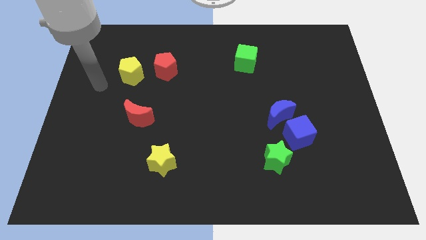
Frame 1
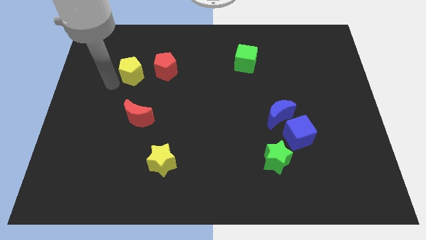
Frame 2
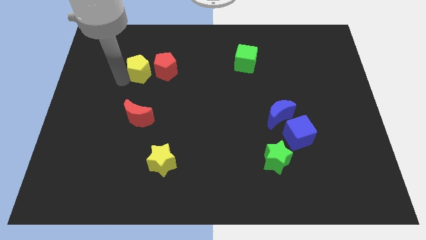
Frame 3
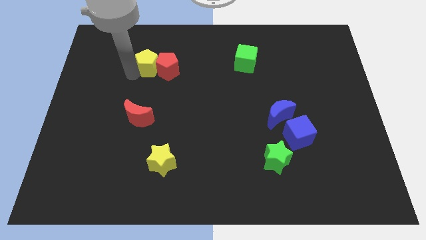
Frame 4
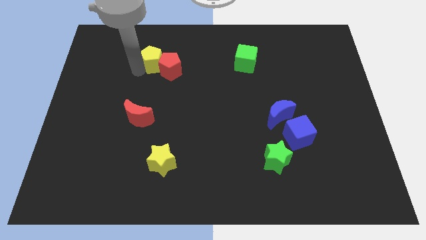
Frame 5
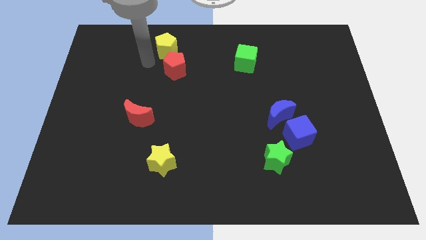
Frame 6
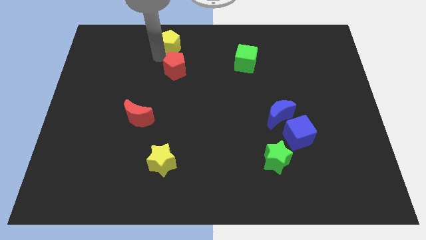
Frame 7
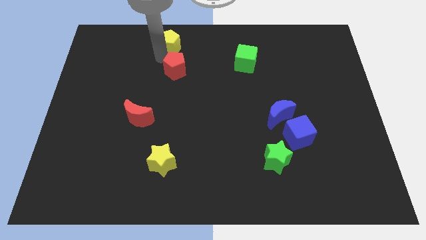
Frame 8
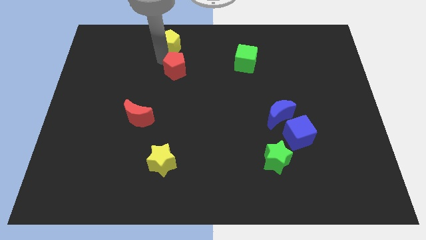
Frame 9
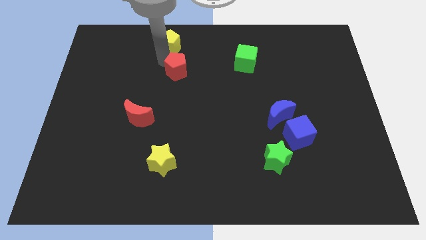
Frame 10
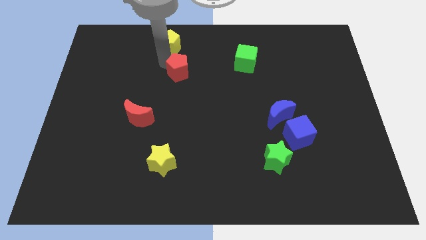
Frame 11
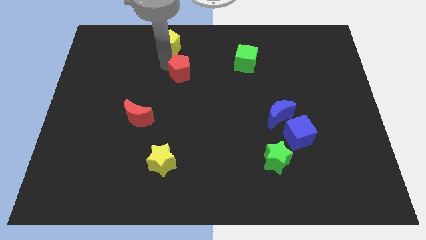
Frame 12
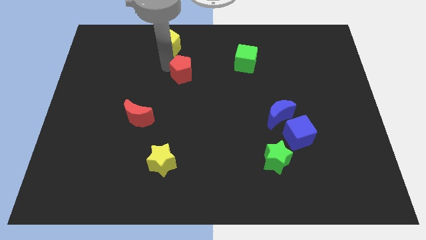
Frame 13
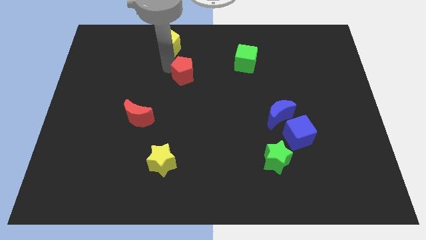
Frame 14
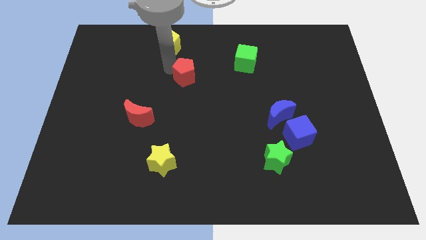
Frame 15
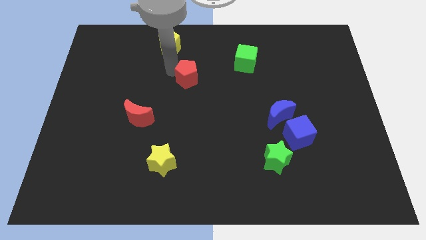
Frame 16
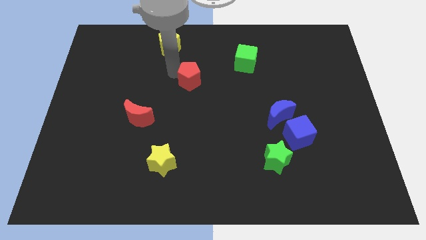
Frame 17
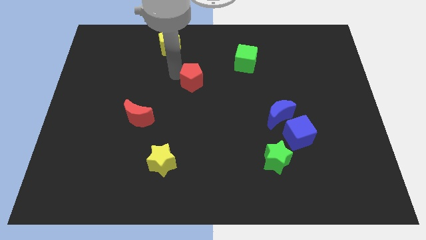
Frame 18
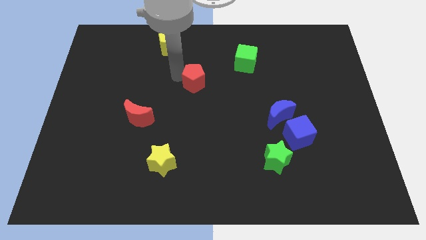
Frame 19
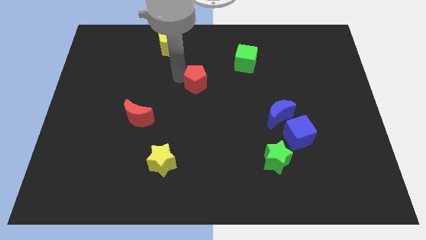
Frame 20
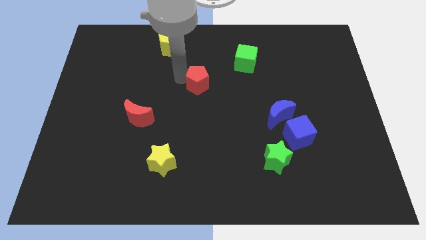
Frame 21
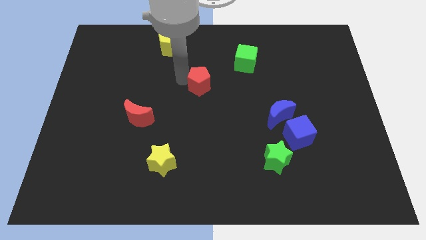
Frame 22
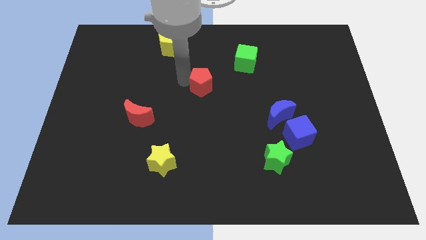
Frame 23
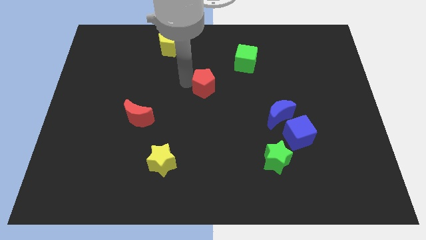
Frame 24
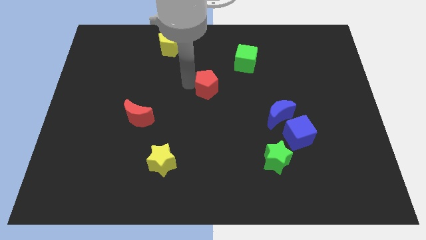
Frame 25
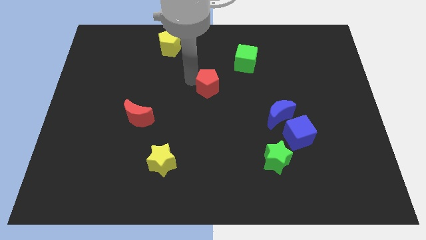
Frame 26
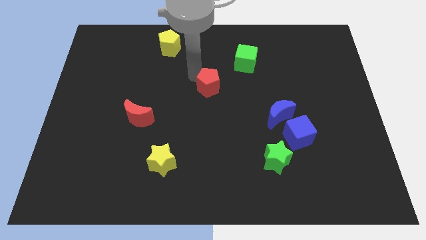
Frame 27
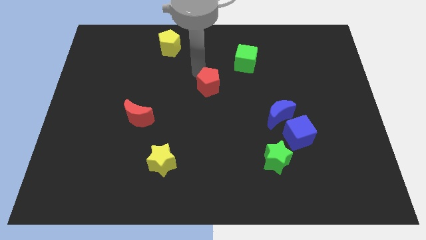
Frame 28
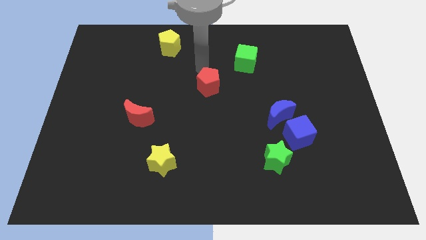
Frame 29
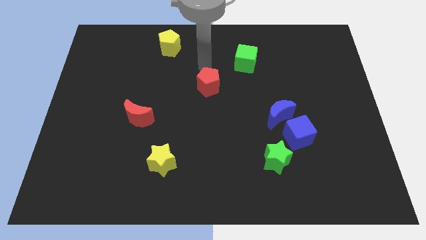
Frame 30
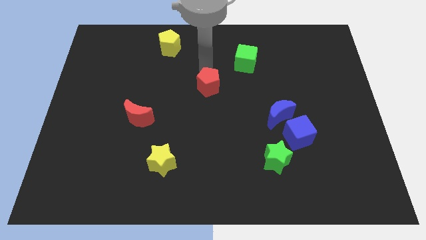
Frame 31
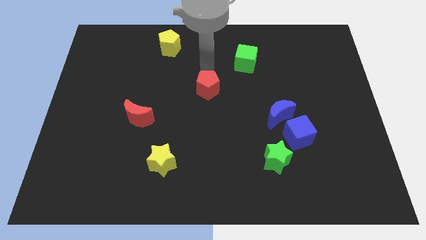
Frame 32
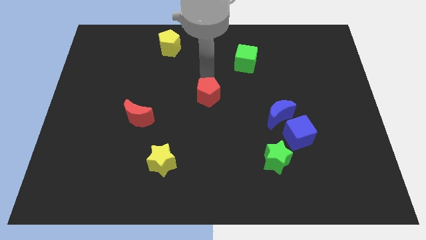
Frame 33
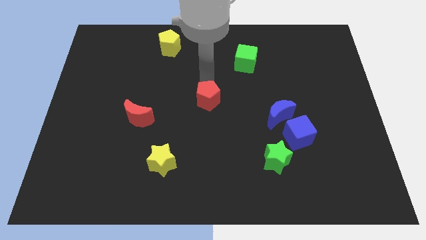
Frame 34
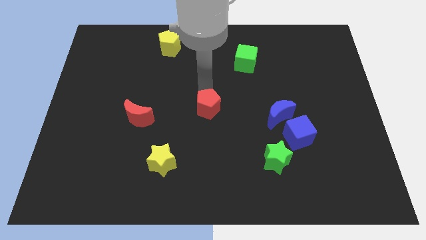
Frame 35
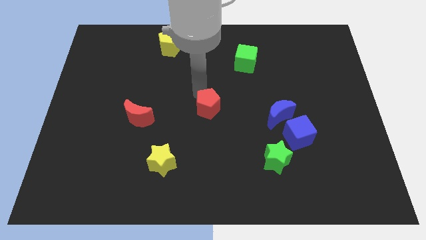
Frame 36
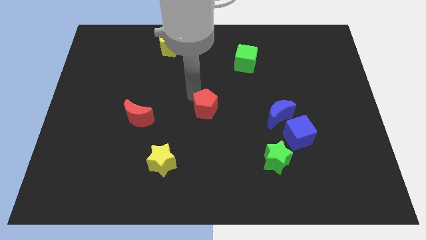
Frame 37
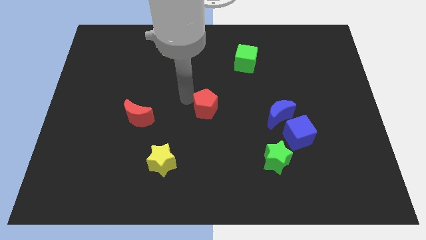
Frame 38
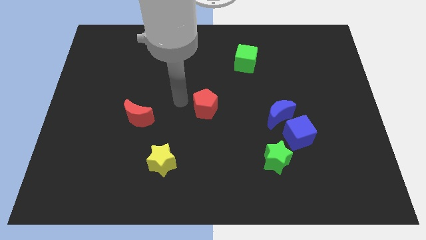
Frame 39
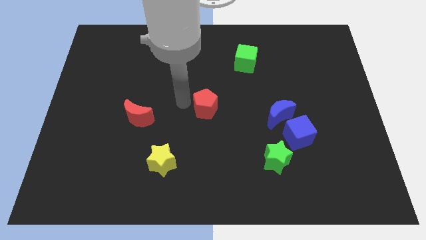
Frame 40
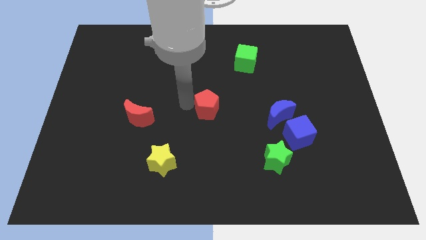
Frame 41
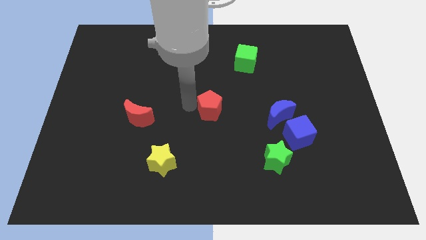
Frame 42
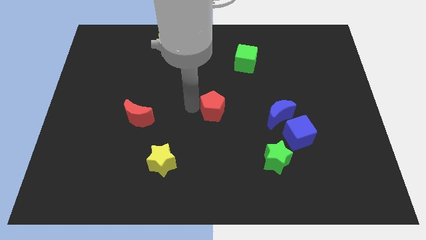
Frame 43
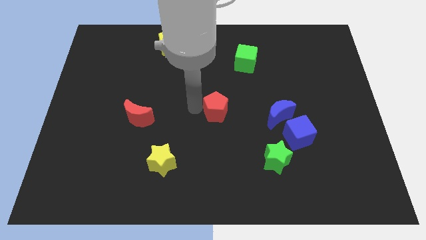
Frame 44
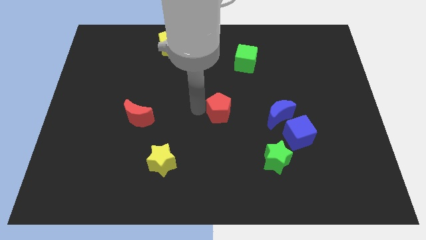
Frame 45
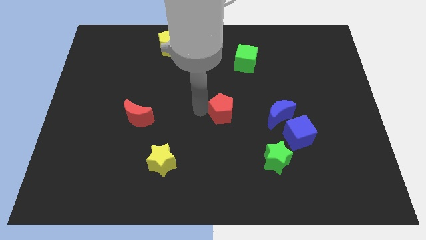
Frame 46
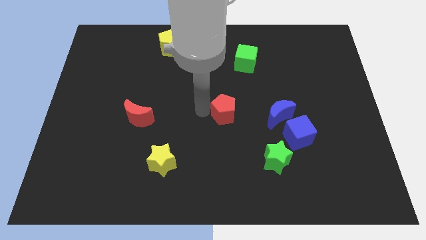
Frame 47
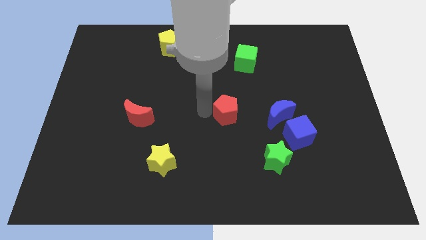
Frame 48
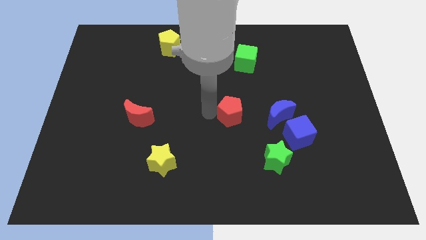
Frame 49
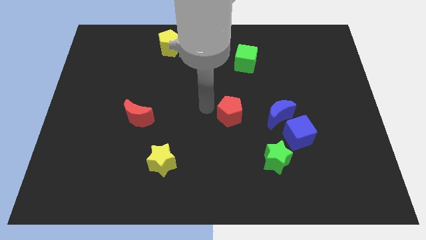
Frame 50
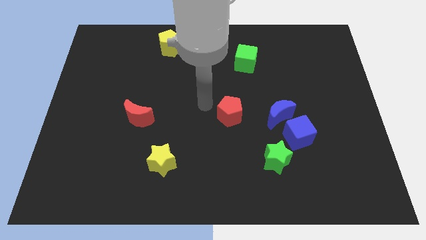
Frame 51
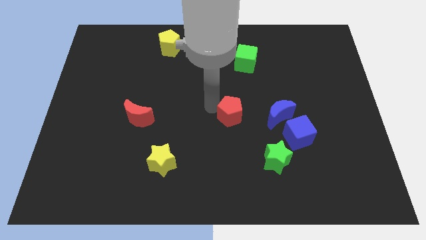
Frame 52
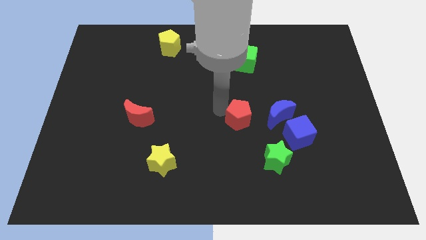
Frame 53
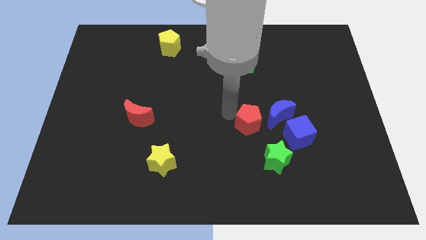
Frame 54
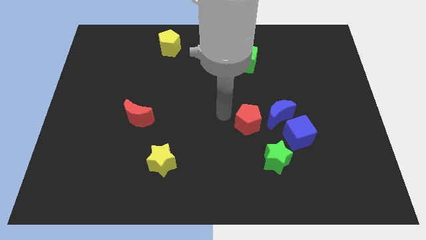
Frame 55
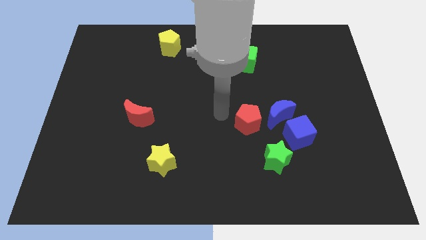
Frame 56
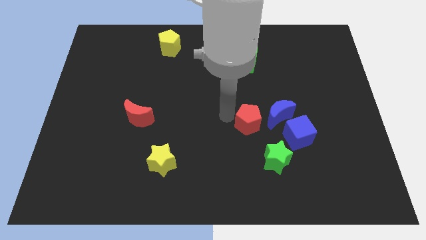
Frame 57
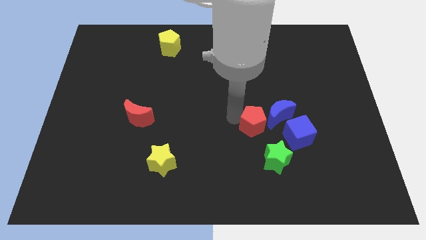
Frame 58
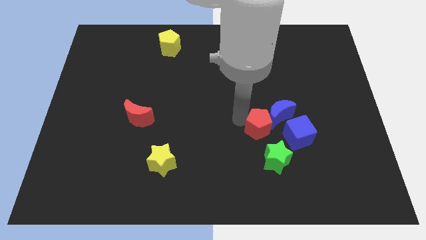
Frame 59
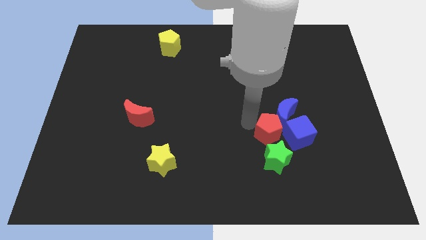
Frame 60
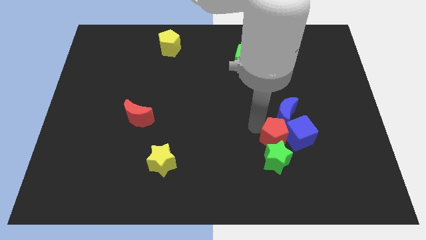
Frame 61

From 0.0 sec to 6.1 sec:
move the red pentagon towards the blue cube
